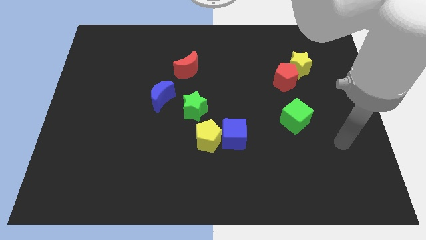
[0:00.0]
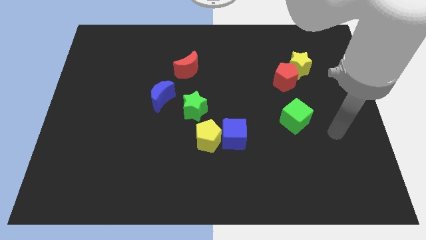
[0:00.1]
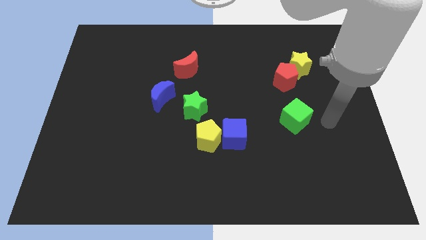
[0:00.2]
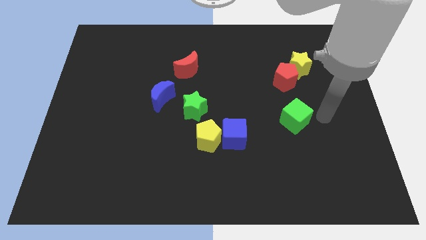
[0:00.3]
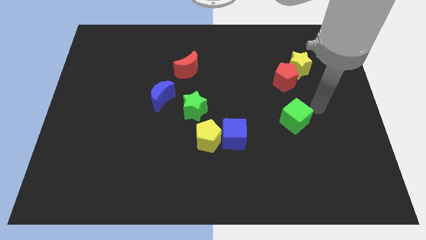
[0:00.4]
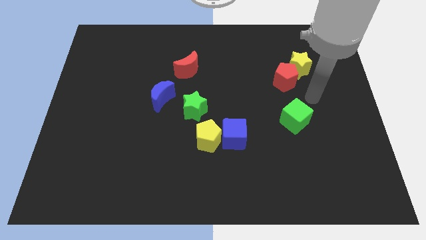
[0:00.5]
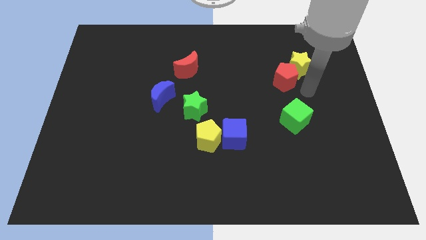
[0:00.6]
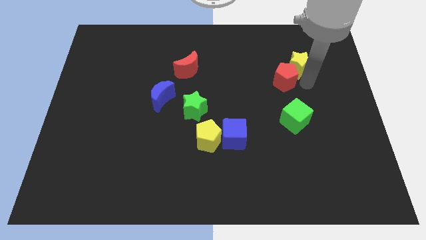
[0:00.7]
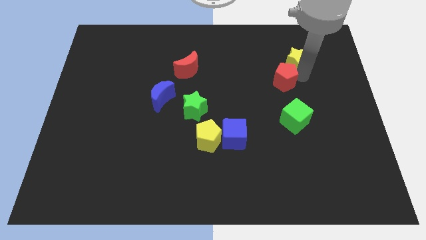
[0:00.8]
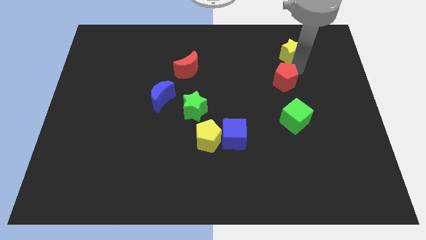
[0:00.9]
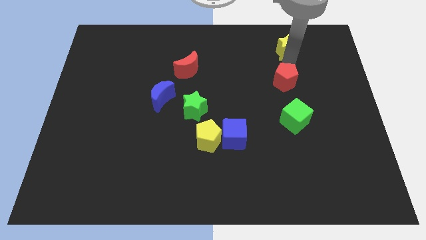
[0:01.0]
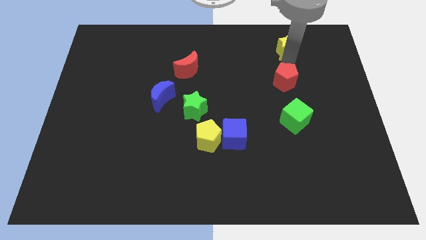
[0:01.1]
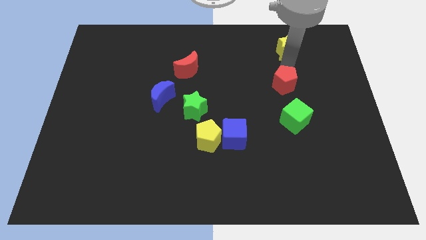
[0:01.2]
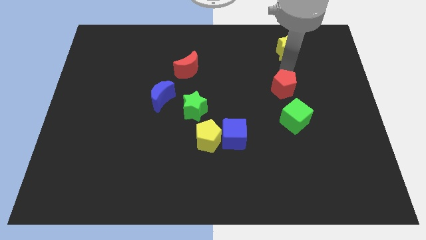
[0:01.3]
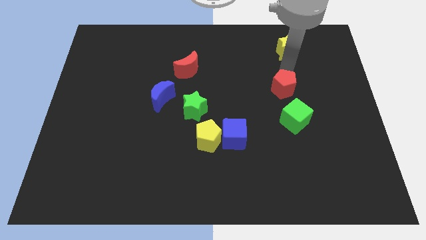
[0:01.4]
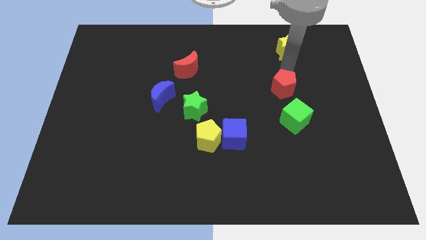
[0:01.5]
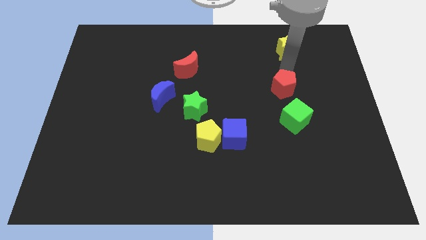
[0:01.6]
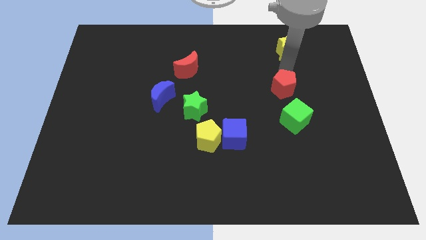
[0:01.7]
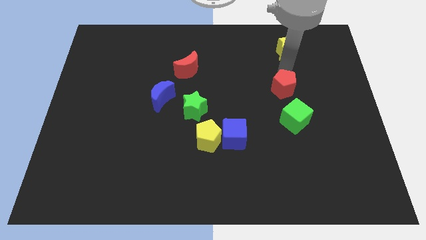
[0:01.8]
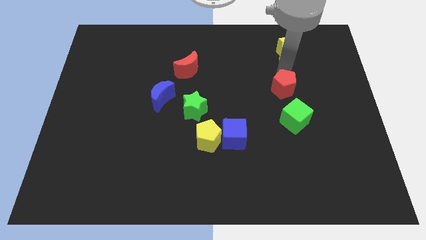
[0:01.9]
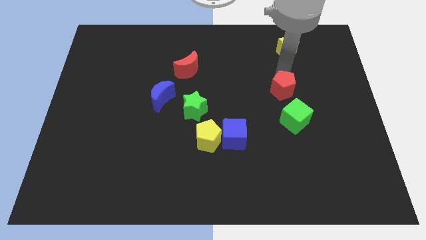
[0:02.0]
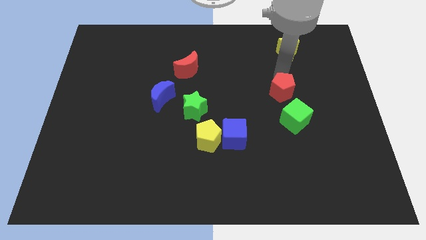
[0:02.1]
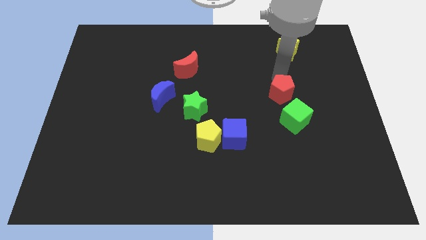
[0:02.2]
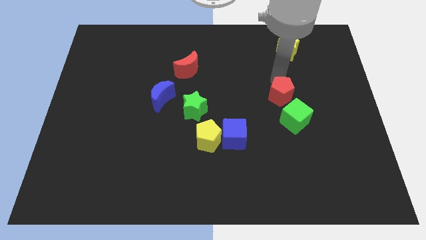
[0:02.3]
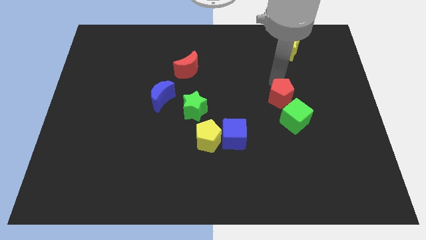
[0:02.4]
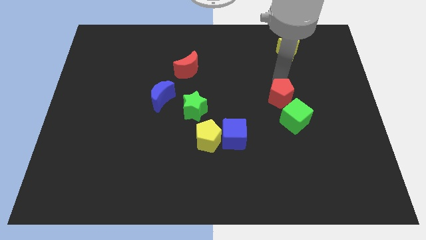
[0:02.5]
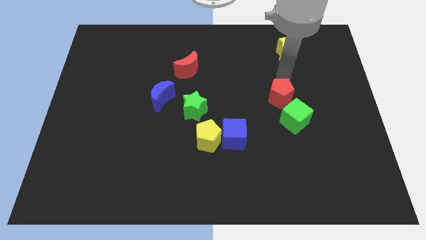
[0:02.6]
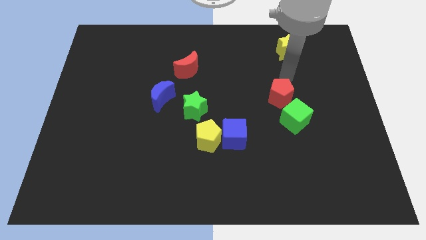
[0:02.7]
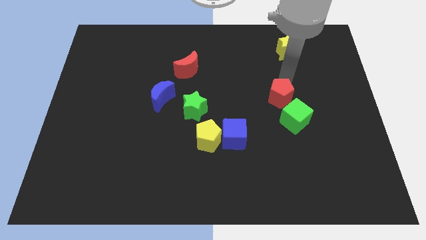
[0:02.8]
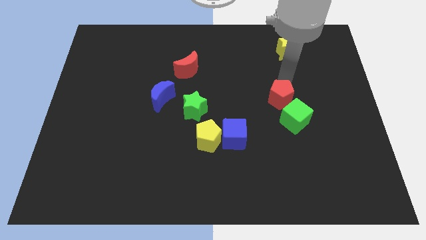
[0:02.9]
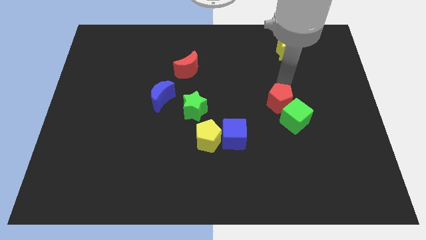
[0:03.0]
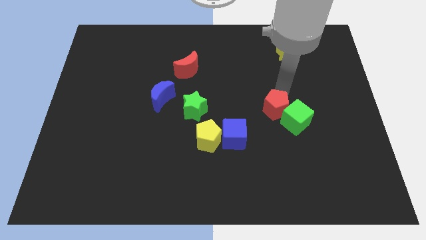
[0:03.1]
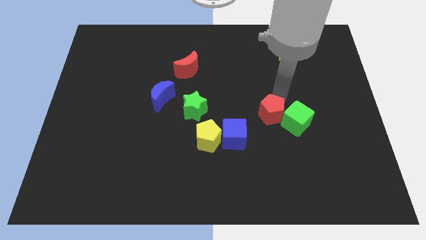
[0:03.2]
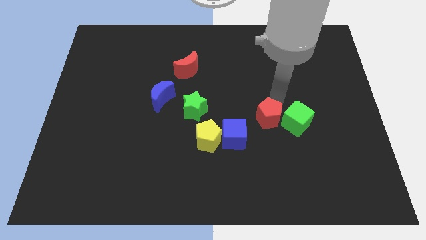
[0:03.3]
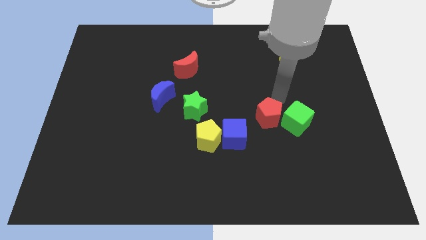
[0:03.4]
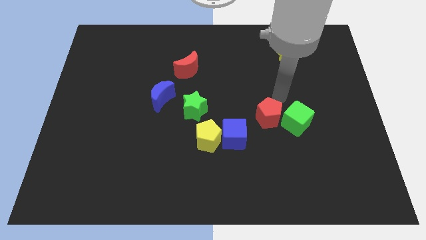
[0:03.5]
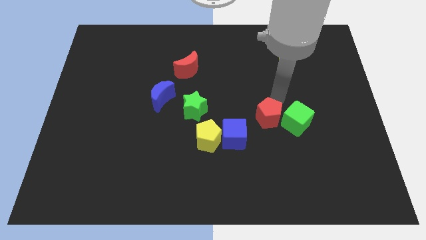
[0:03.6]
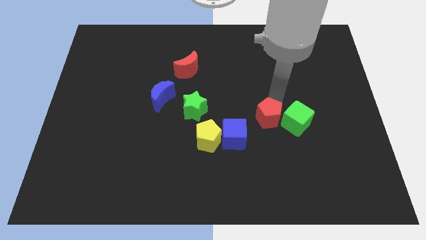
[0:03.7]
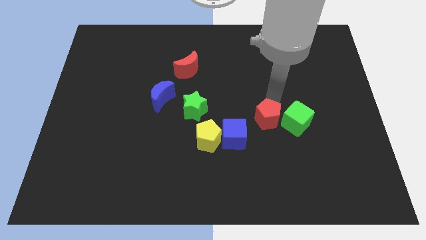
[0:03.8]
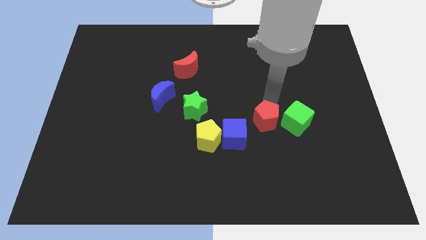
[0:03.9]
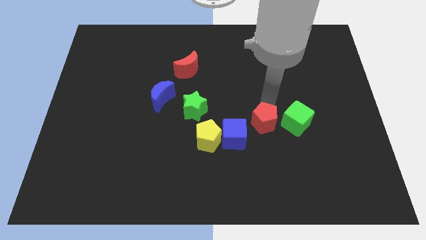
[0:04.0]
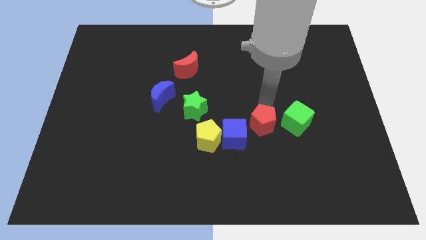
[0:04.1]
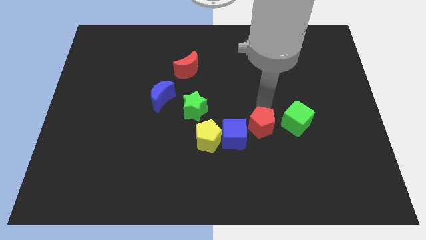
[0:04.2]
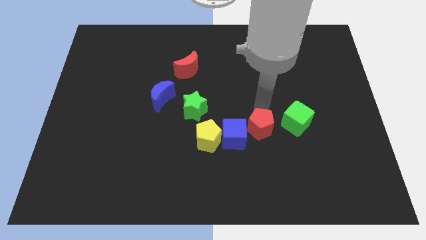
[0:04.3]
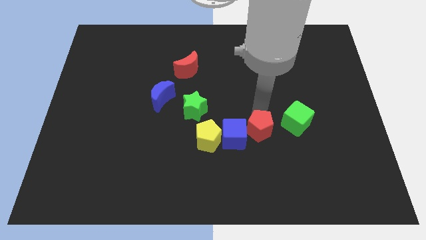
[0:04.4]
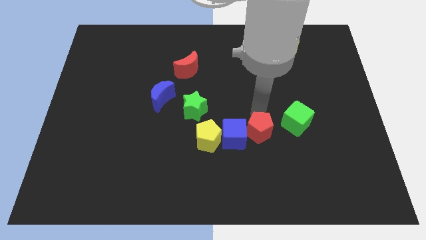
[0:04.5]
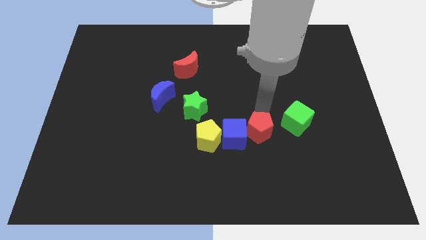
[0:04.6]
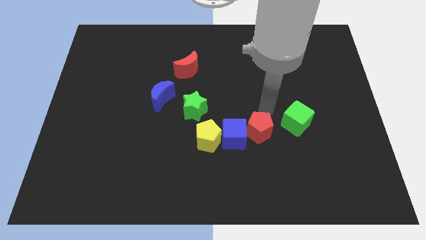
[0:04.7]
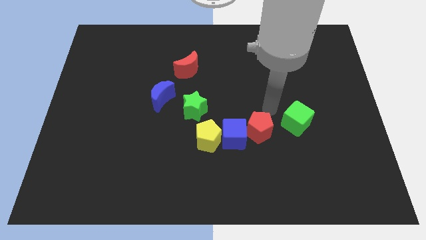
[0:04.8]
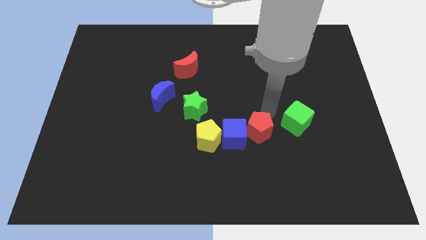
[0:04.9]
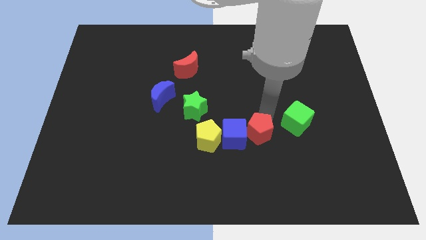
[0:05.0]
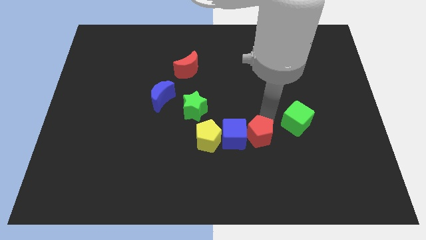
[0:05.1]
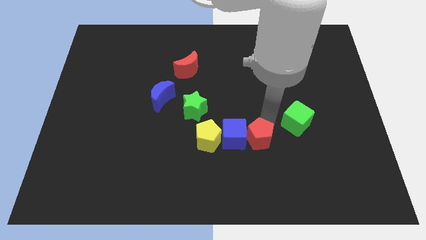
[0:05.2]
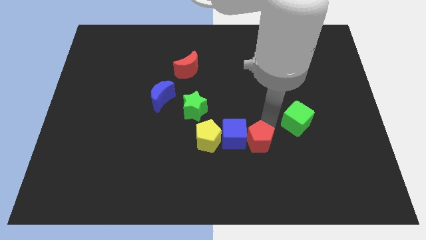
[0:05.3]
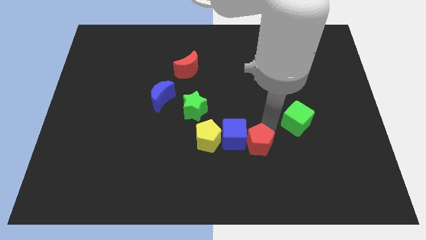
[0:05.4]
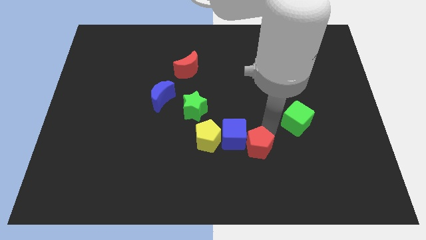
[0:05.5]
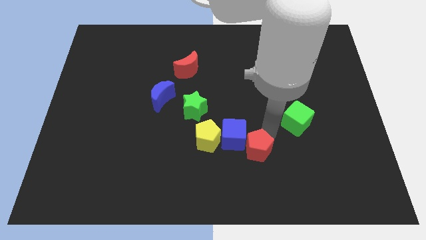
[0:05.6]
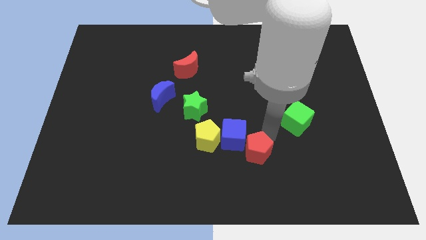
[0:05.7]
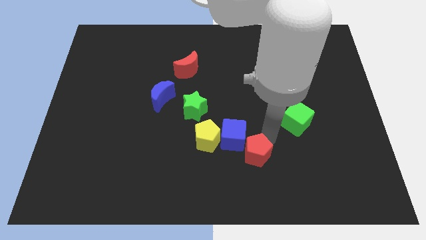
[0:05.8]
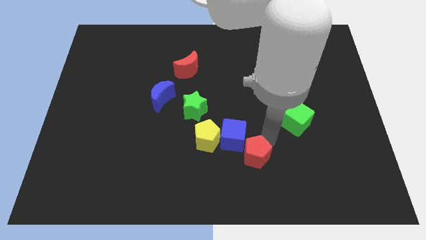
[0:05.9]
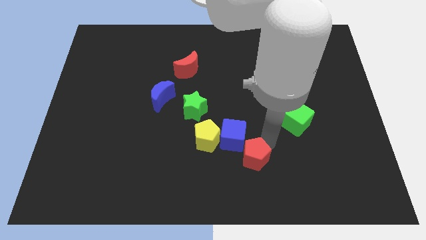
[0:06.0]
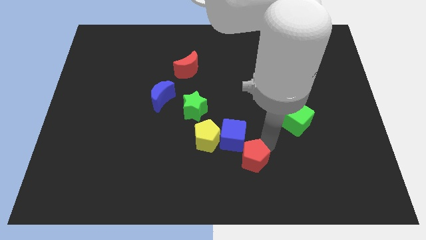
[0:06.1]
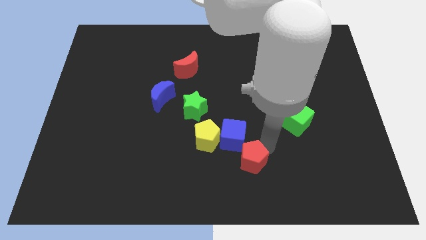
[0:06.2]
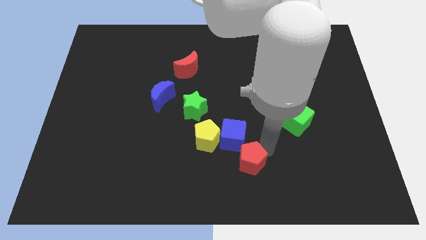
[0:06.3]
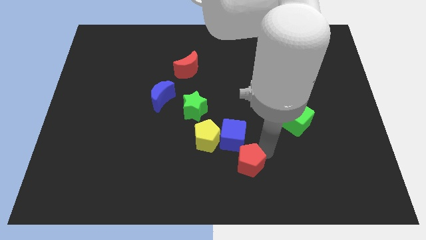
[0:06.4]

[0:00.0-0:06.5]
move the red pentagon down and to the left diagonally

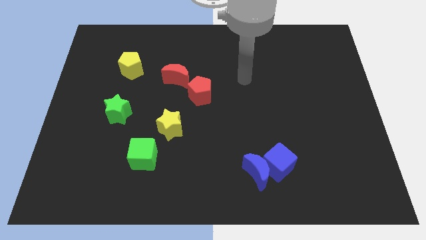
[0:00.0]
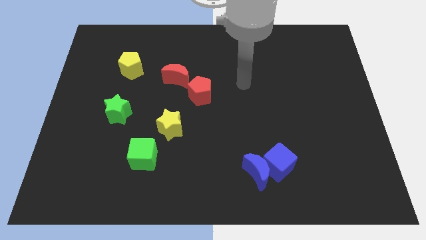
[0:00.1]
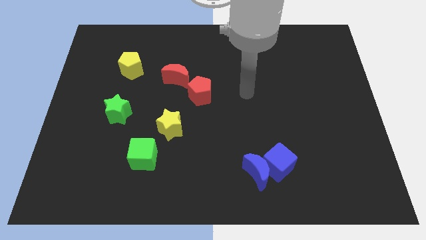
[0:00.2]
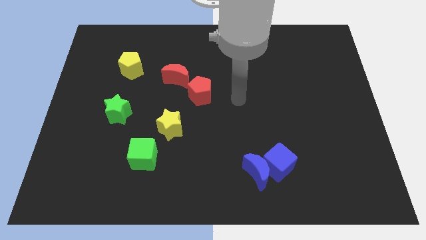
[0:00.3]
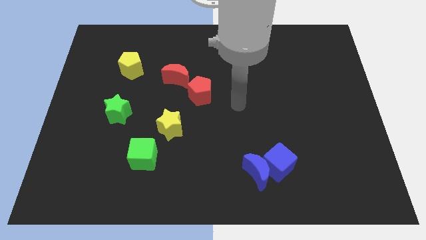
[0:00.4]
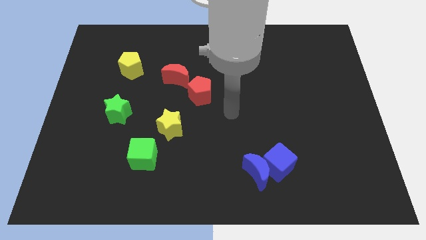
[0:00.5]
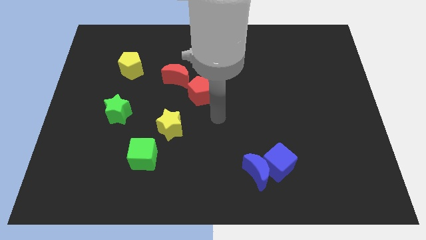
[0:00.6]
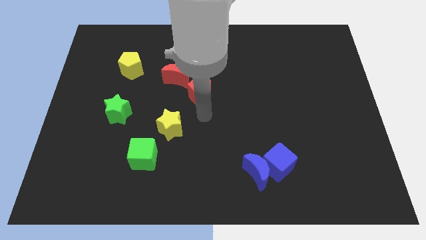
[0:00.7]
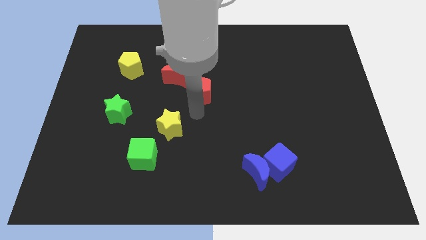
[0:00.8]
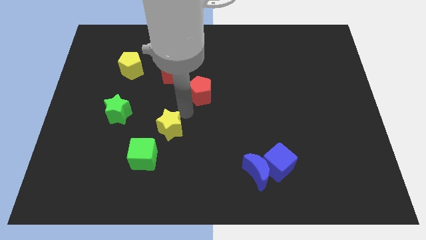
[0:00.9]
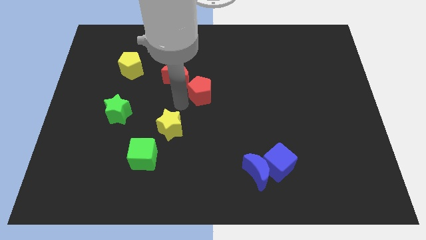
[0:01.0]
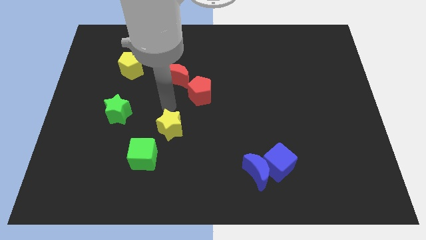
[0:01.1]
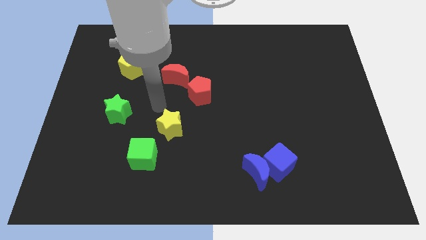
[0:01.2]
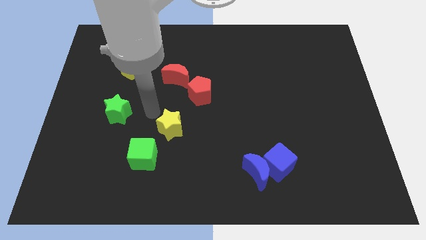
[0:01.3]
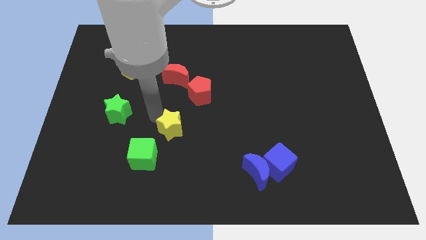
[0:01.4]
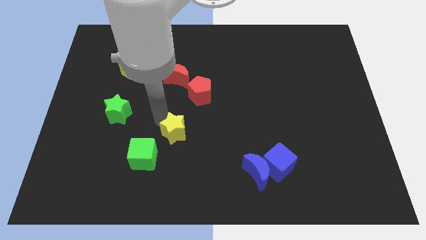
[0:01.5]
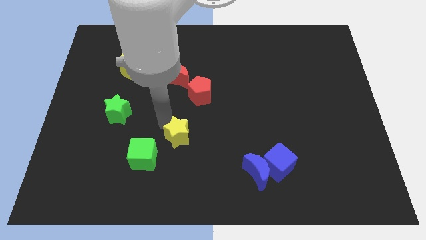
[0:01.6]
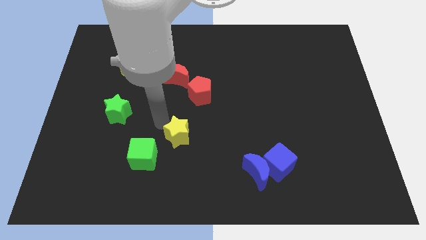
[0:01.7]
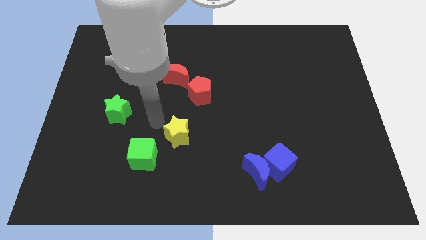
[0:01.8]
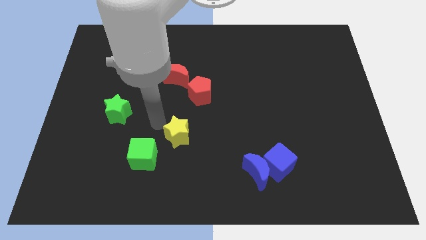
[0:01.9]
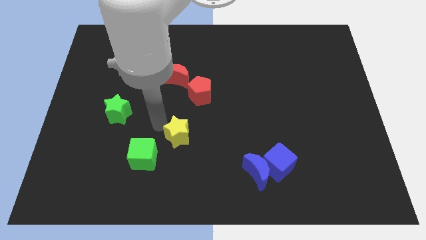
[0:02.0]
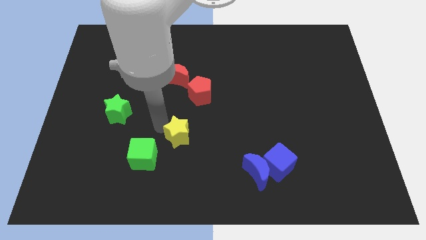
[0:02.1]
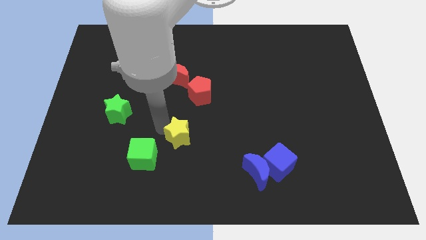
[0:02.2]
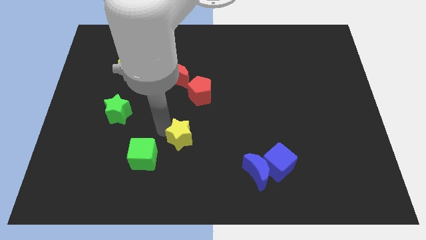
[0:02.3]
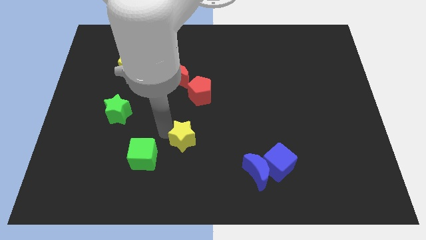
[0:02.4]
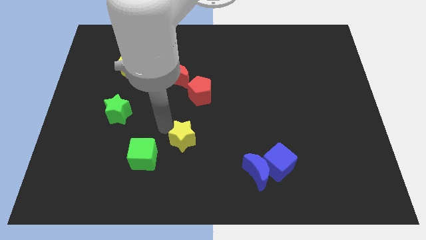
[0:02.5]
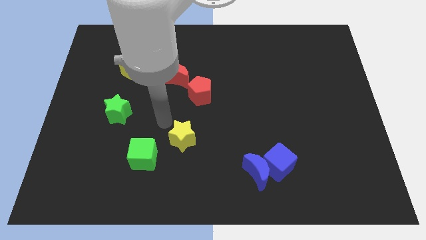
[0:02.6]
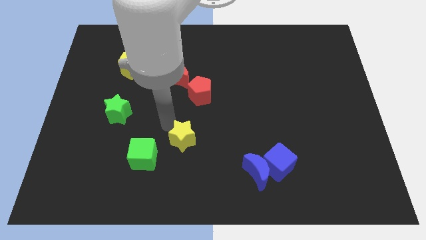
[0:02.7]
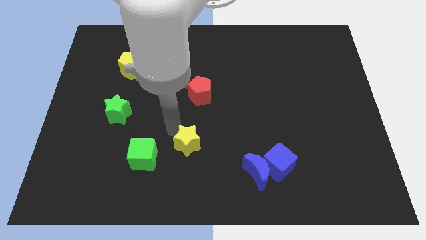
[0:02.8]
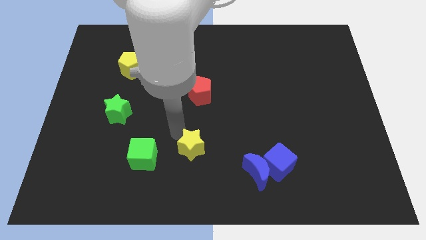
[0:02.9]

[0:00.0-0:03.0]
push the yellow star diagonally down and right a bit
